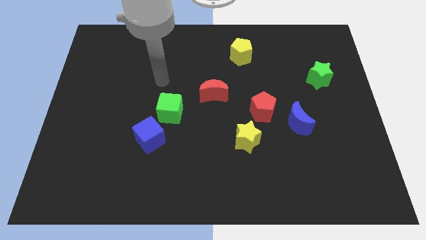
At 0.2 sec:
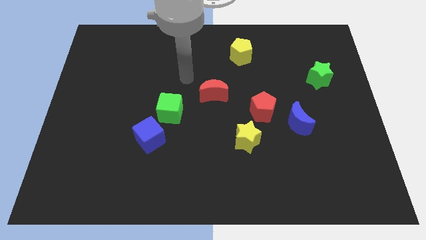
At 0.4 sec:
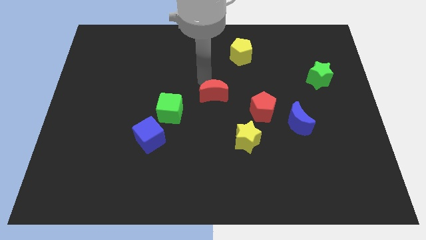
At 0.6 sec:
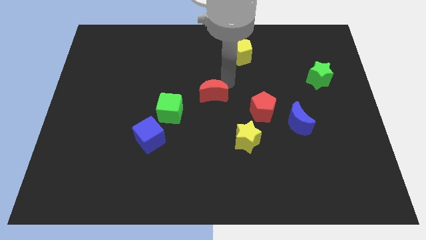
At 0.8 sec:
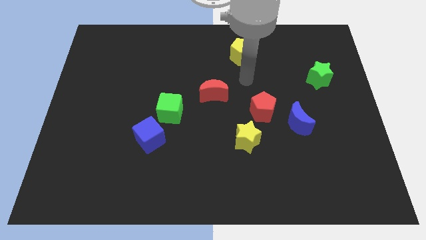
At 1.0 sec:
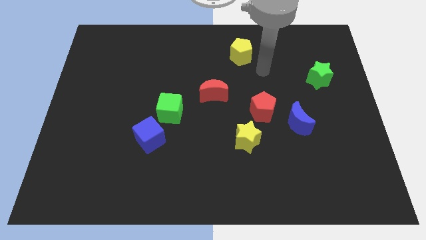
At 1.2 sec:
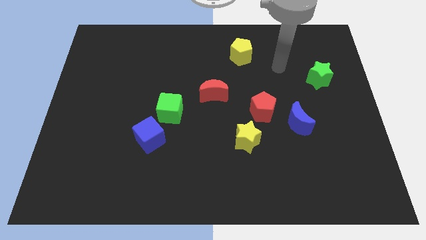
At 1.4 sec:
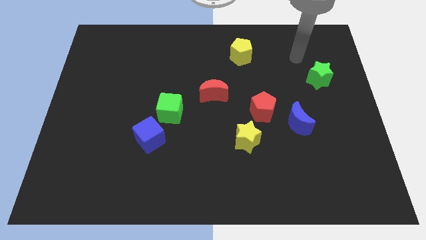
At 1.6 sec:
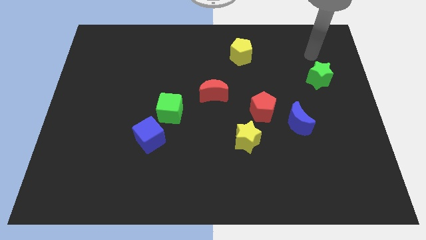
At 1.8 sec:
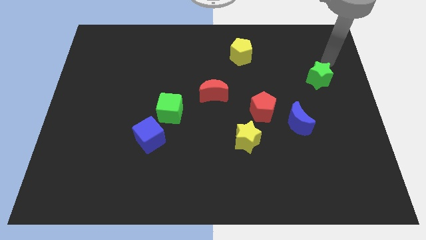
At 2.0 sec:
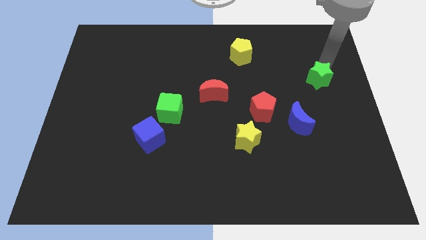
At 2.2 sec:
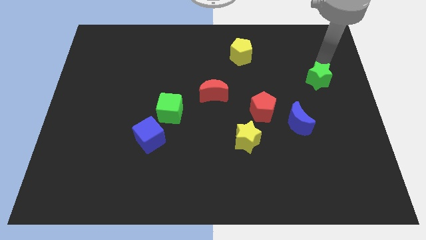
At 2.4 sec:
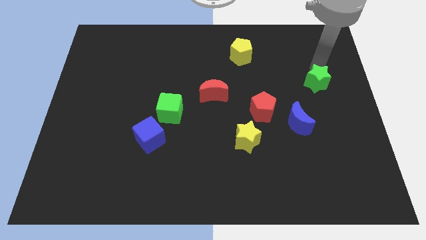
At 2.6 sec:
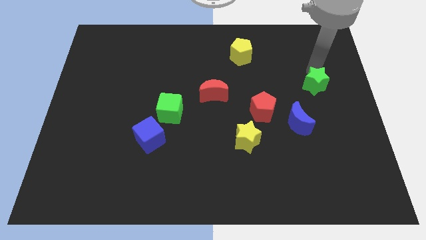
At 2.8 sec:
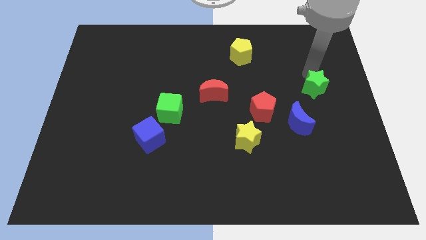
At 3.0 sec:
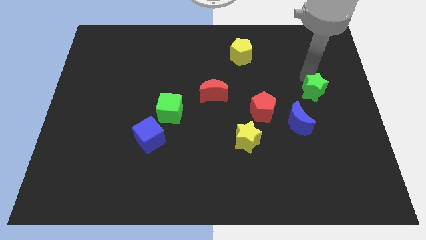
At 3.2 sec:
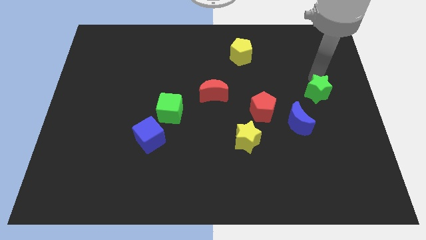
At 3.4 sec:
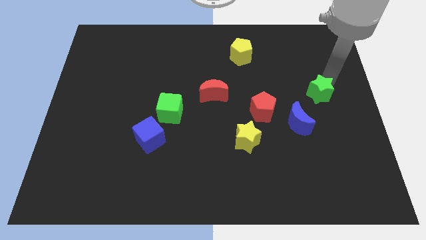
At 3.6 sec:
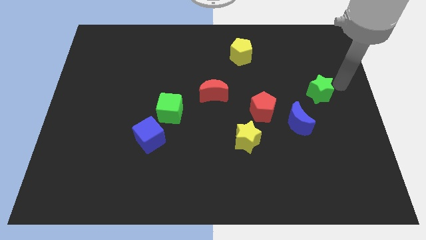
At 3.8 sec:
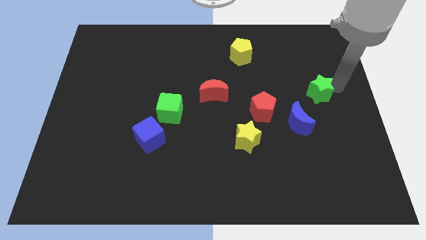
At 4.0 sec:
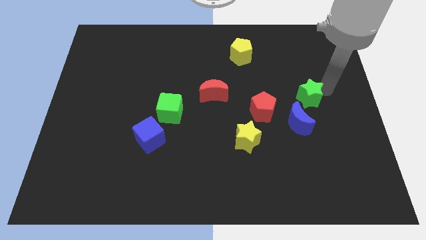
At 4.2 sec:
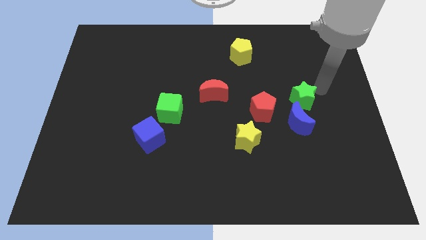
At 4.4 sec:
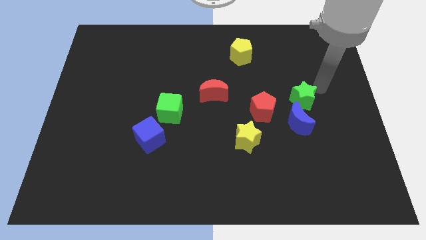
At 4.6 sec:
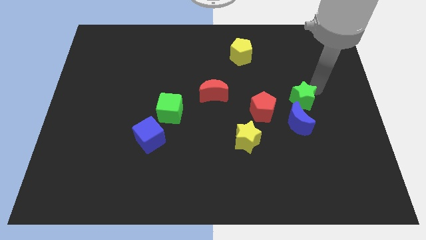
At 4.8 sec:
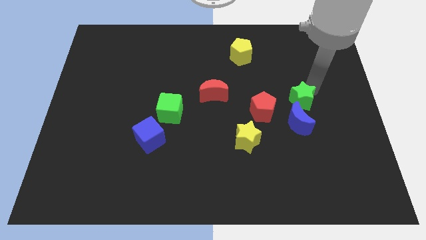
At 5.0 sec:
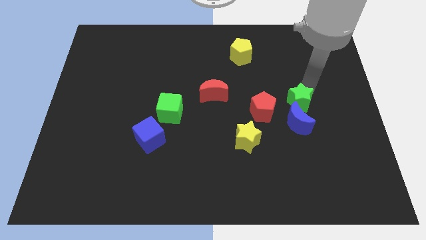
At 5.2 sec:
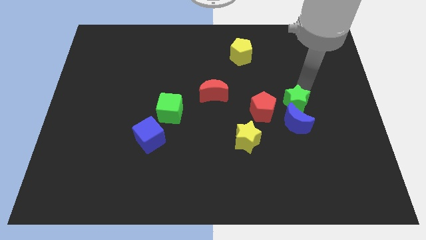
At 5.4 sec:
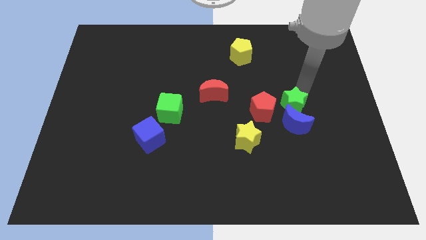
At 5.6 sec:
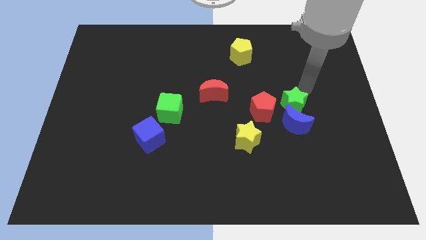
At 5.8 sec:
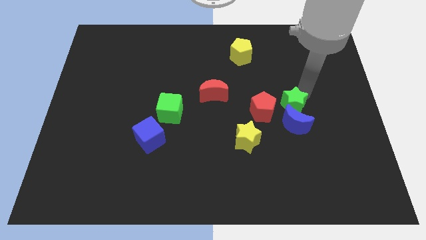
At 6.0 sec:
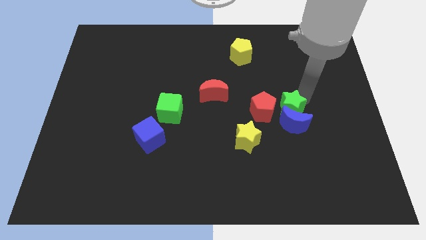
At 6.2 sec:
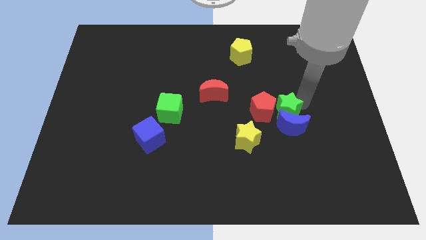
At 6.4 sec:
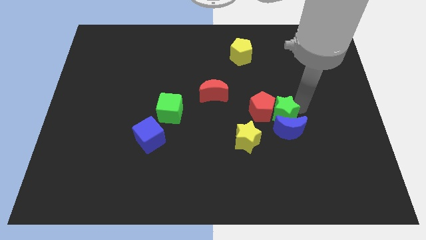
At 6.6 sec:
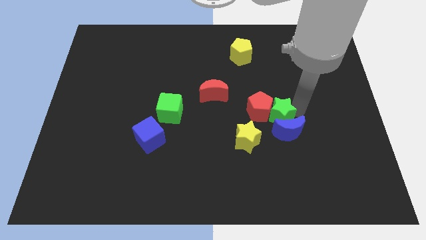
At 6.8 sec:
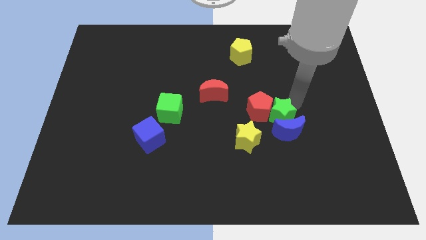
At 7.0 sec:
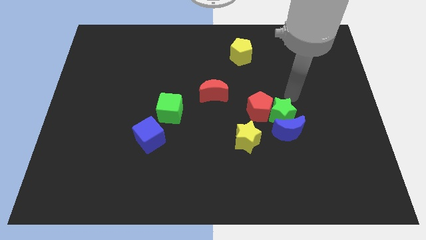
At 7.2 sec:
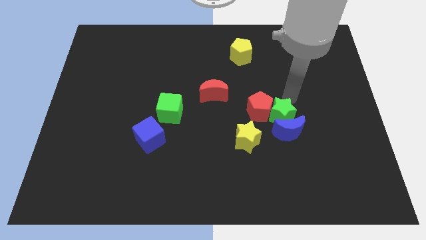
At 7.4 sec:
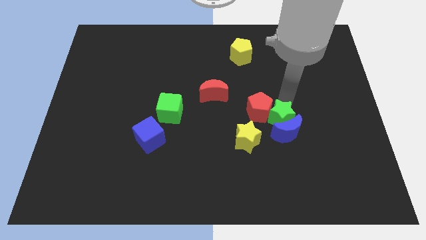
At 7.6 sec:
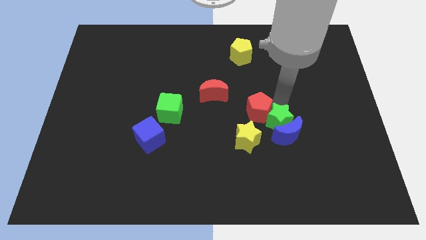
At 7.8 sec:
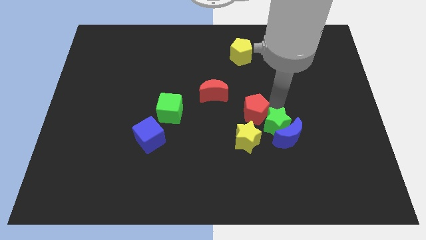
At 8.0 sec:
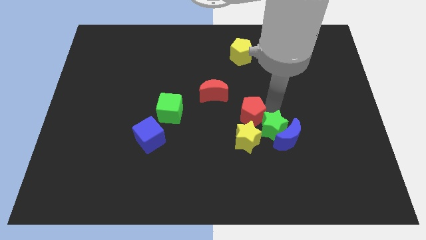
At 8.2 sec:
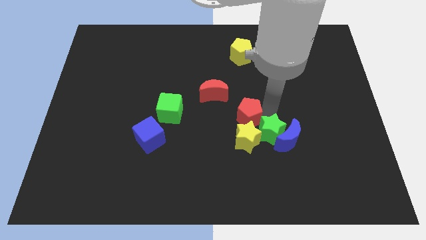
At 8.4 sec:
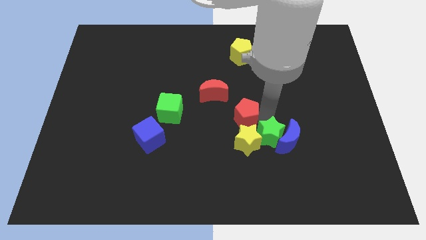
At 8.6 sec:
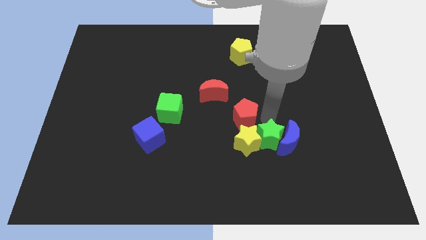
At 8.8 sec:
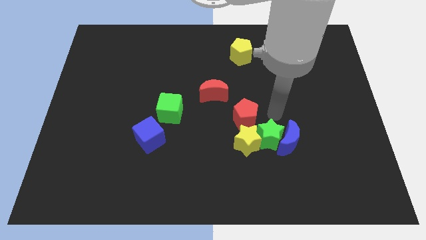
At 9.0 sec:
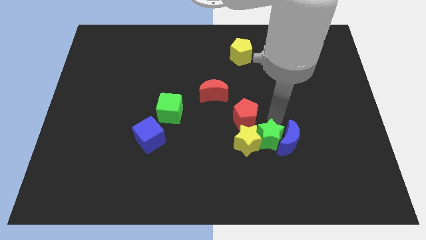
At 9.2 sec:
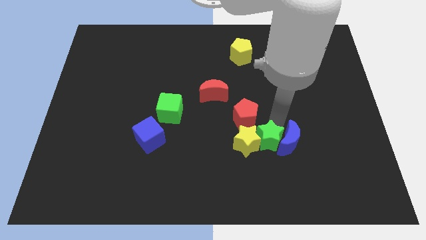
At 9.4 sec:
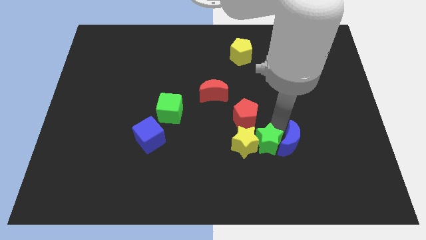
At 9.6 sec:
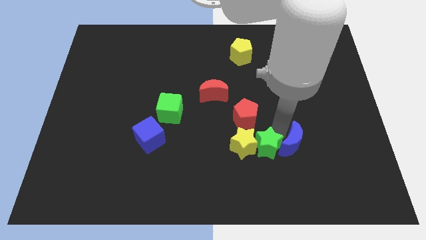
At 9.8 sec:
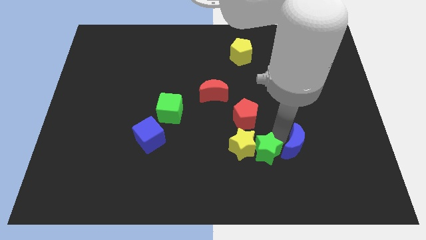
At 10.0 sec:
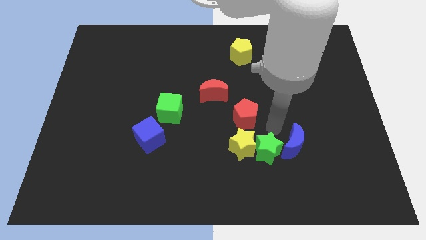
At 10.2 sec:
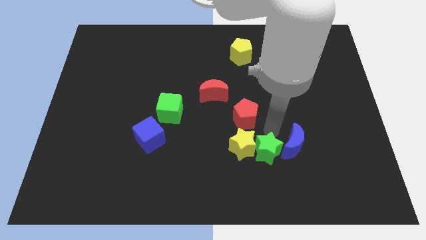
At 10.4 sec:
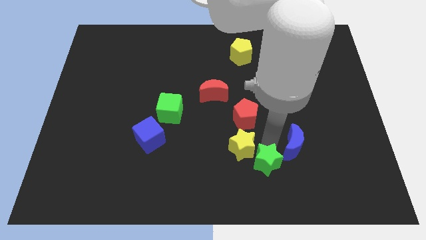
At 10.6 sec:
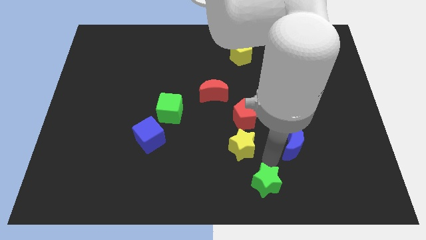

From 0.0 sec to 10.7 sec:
move the green star to the bottom side

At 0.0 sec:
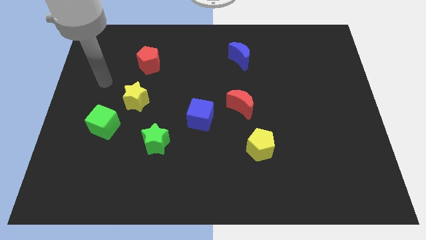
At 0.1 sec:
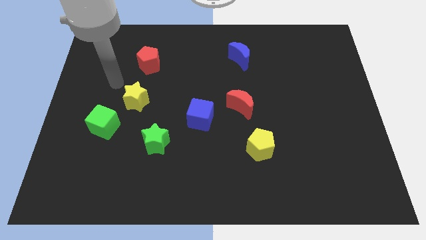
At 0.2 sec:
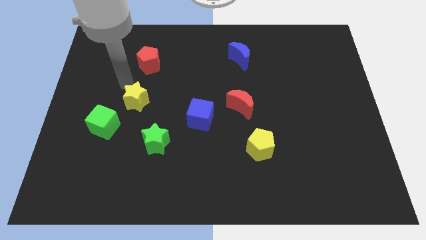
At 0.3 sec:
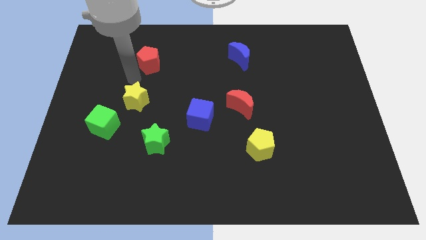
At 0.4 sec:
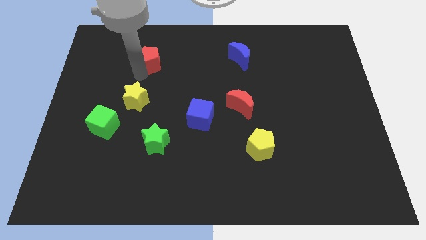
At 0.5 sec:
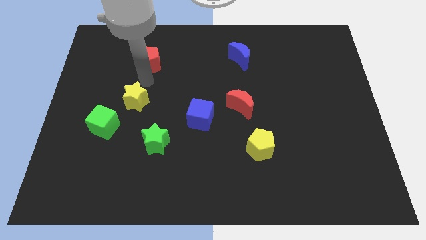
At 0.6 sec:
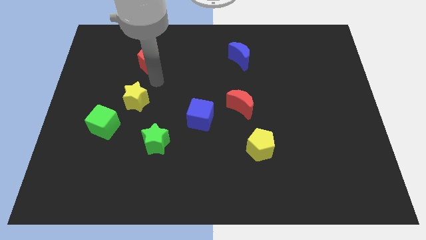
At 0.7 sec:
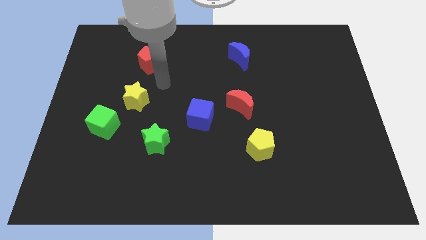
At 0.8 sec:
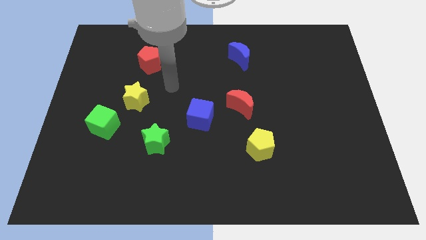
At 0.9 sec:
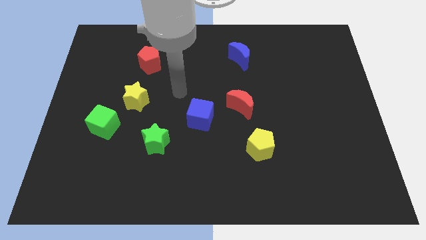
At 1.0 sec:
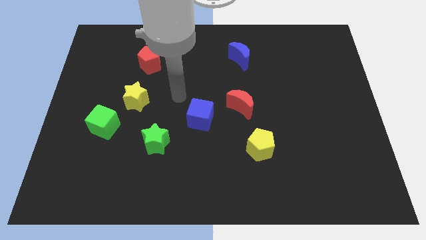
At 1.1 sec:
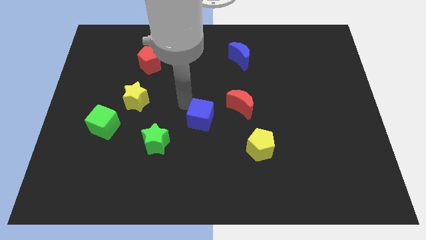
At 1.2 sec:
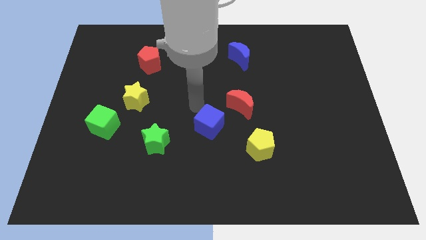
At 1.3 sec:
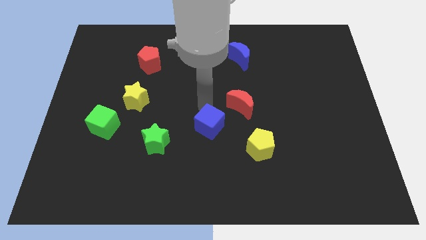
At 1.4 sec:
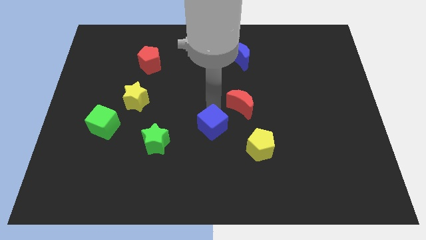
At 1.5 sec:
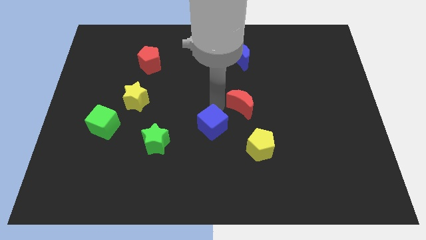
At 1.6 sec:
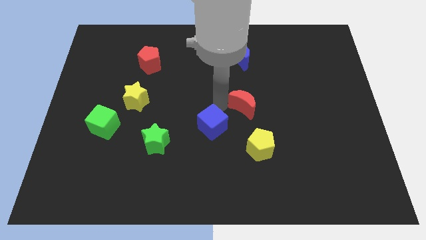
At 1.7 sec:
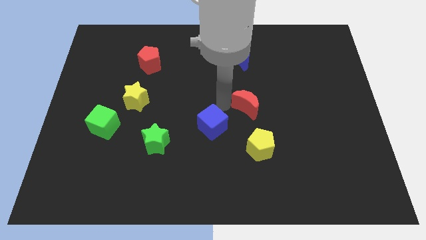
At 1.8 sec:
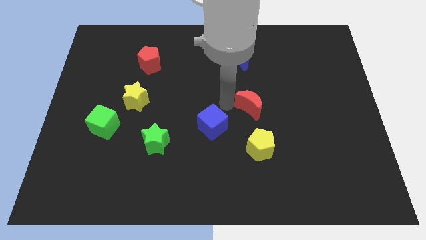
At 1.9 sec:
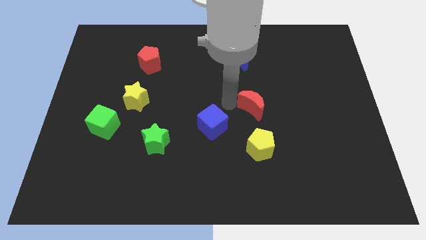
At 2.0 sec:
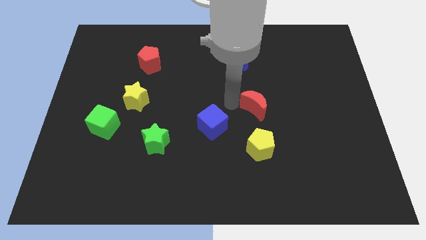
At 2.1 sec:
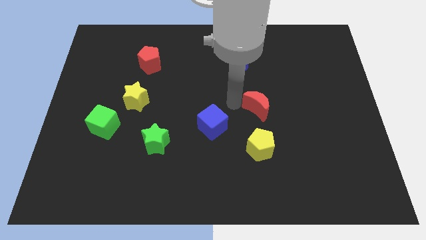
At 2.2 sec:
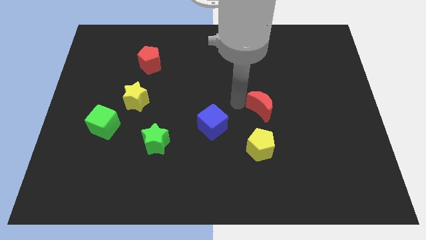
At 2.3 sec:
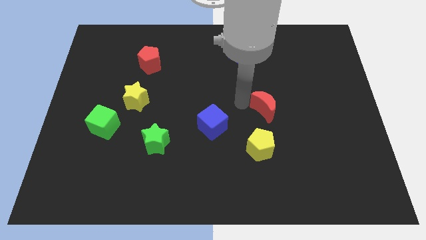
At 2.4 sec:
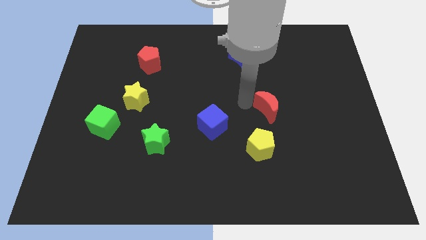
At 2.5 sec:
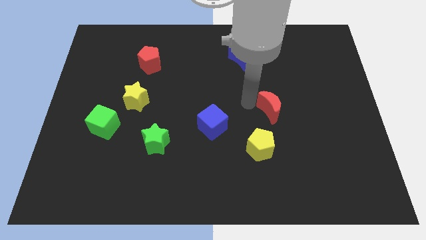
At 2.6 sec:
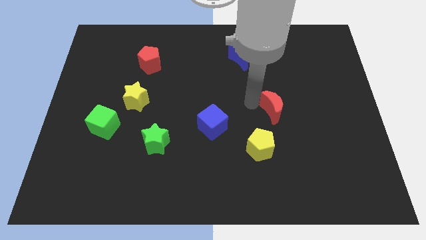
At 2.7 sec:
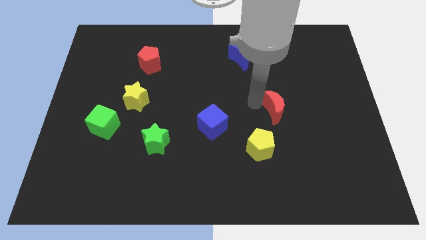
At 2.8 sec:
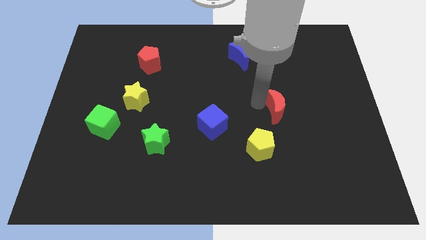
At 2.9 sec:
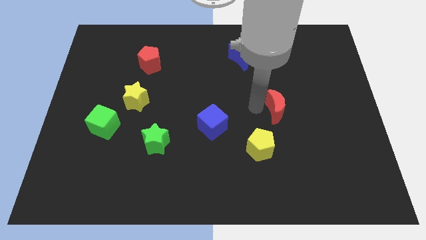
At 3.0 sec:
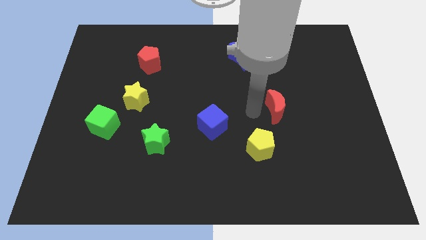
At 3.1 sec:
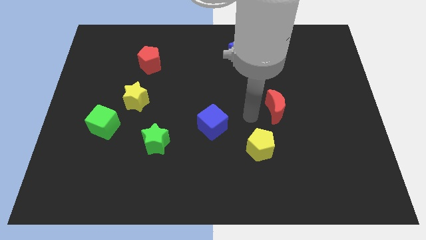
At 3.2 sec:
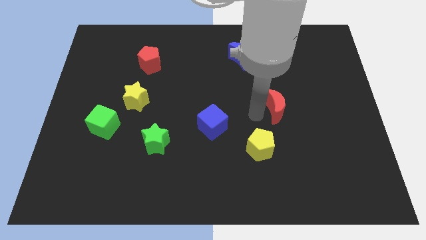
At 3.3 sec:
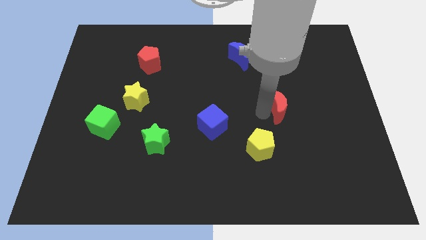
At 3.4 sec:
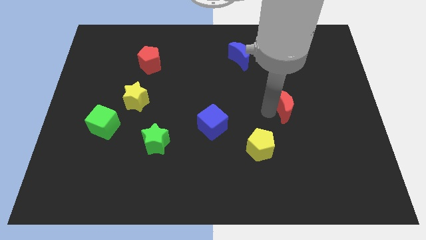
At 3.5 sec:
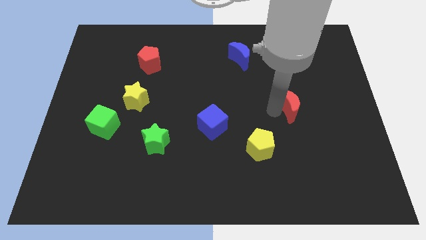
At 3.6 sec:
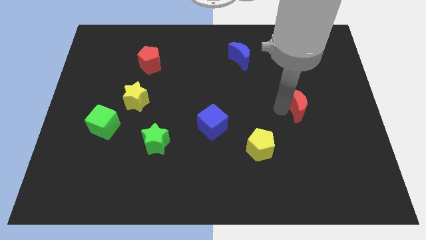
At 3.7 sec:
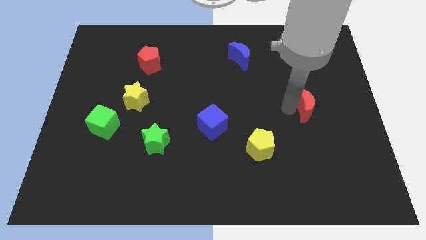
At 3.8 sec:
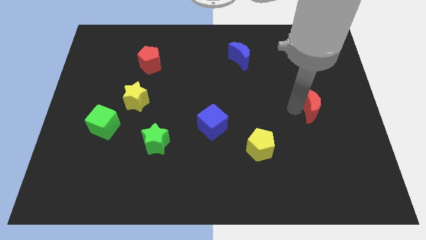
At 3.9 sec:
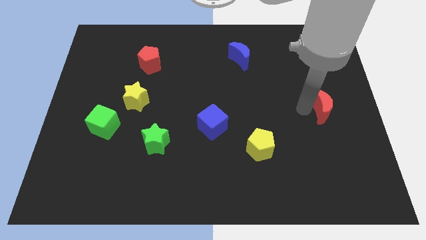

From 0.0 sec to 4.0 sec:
put the red moon to the center right
